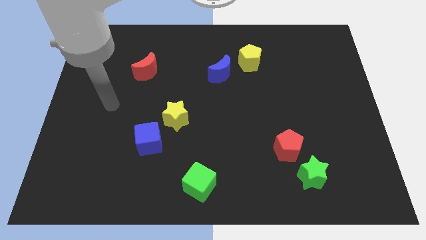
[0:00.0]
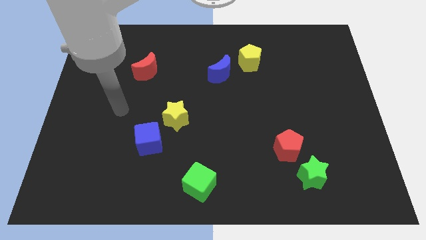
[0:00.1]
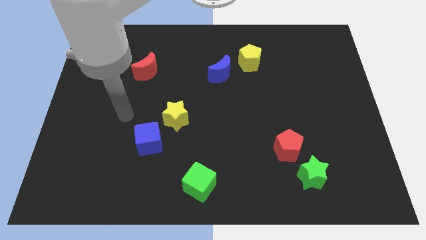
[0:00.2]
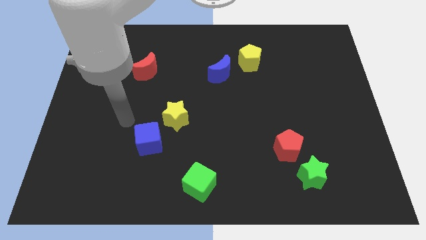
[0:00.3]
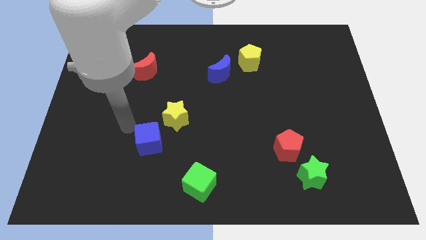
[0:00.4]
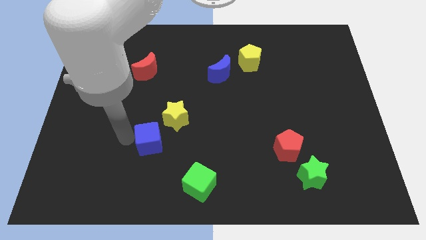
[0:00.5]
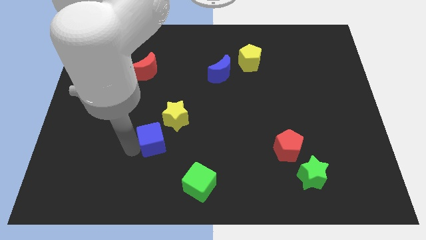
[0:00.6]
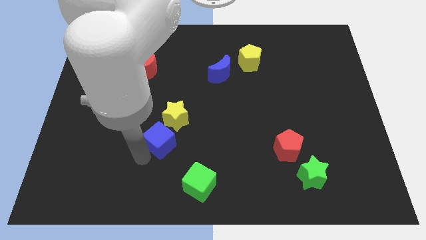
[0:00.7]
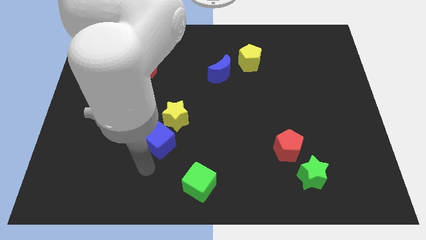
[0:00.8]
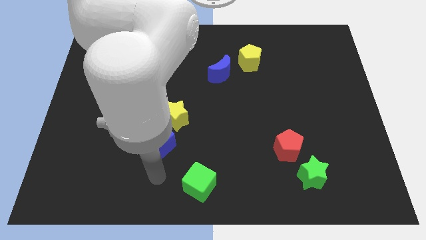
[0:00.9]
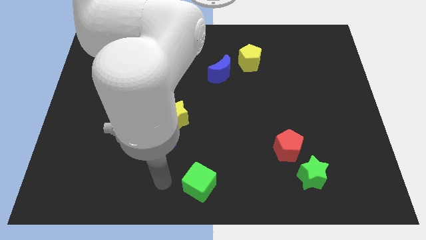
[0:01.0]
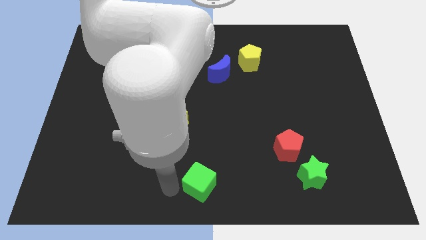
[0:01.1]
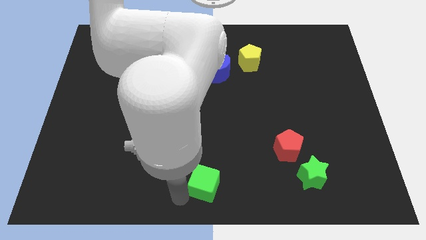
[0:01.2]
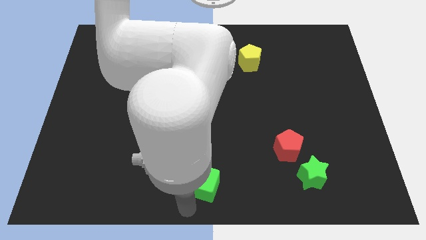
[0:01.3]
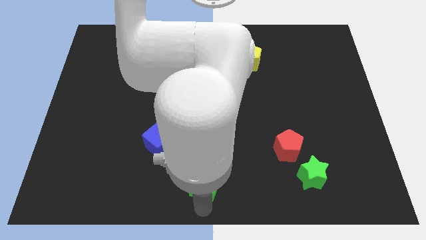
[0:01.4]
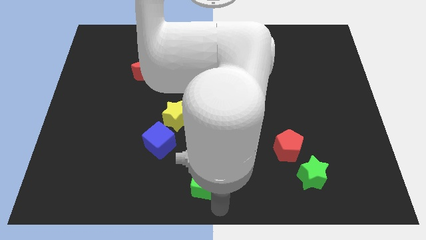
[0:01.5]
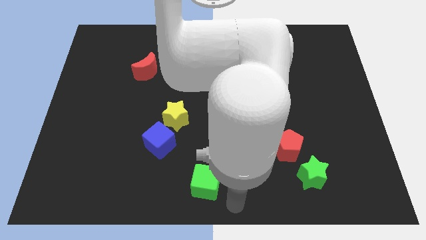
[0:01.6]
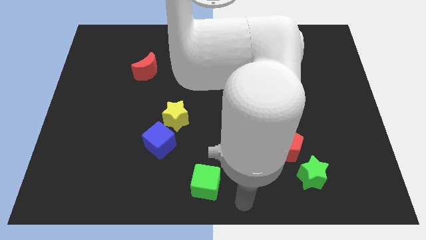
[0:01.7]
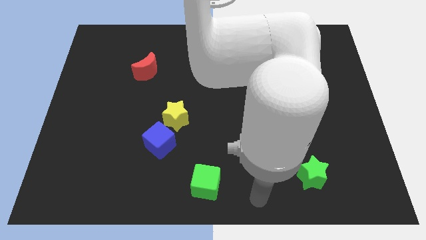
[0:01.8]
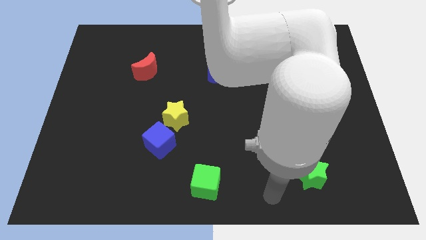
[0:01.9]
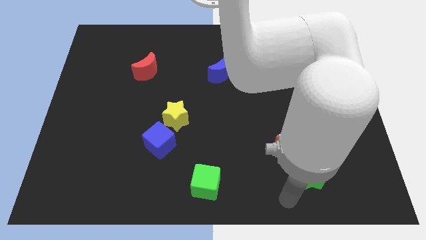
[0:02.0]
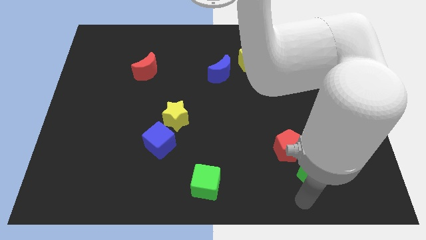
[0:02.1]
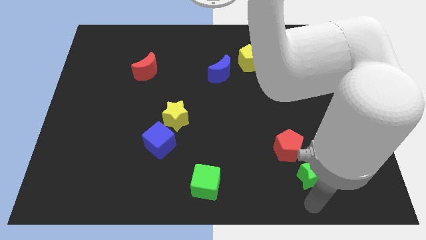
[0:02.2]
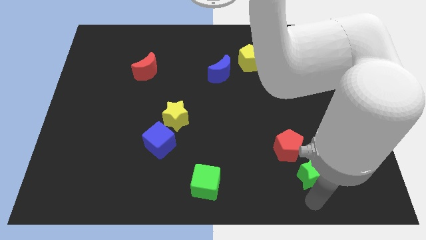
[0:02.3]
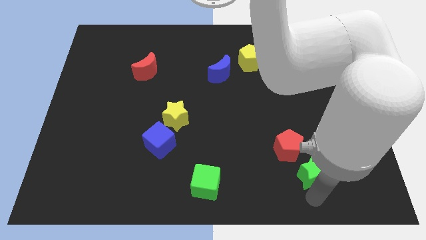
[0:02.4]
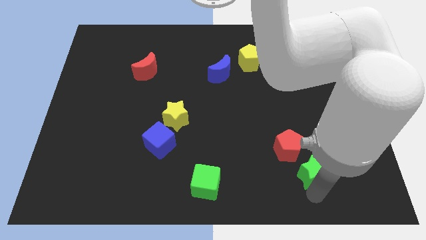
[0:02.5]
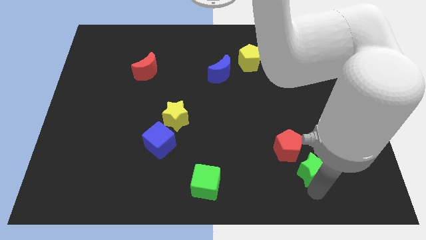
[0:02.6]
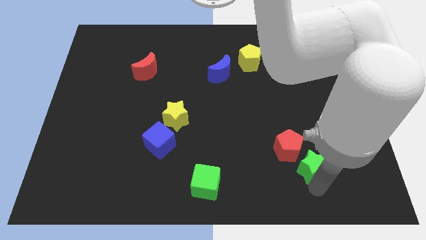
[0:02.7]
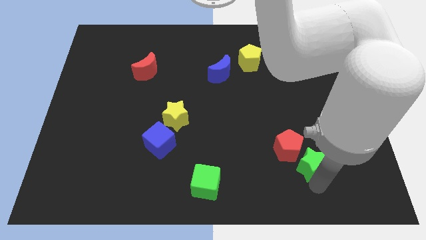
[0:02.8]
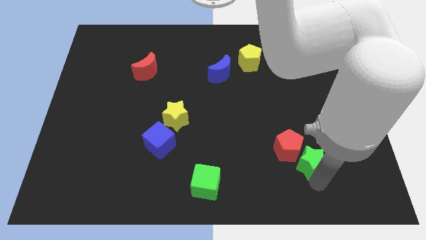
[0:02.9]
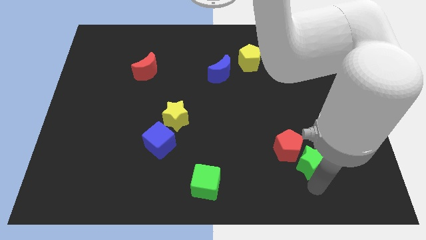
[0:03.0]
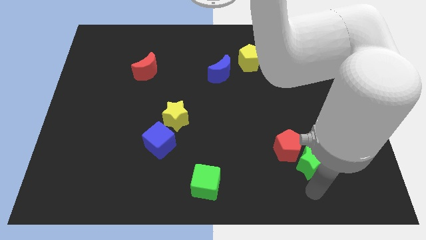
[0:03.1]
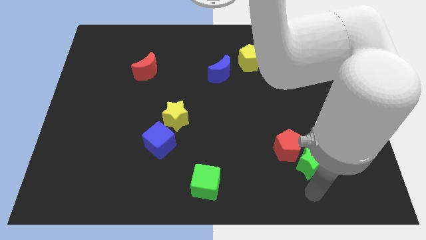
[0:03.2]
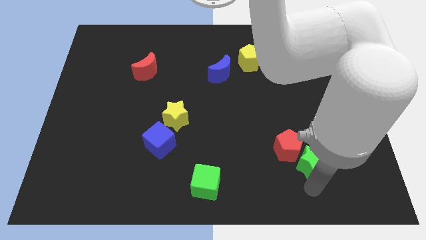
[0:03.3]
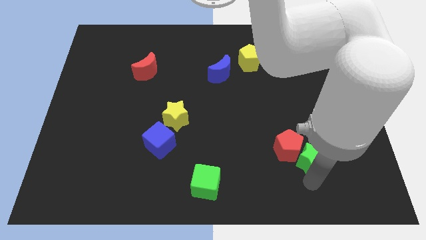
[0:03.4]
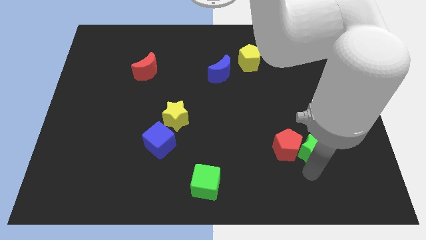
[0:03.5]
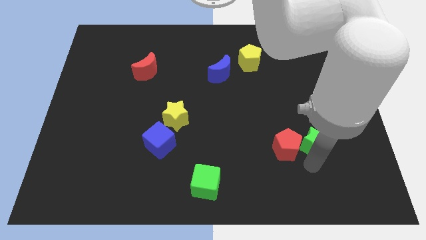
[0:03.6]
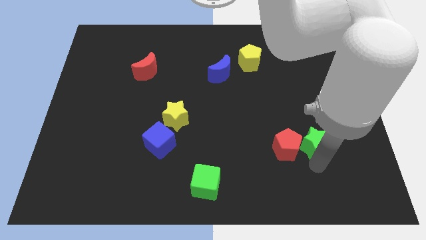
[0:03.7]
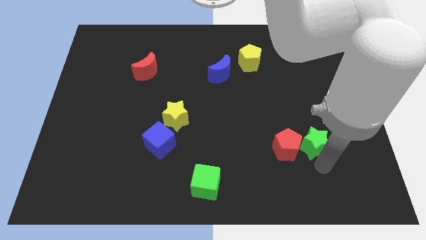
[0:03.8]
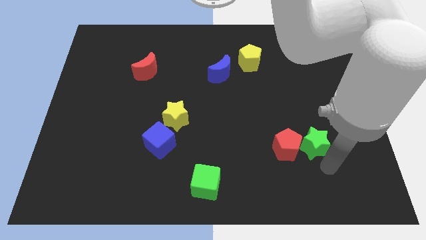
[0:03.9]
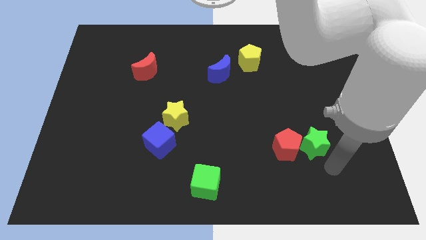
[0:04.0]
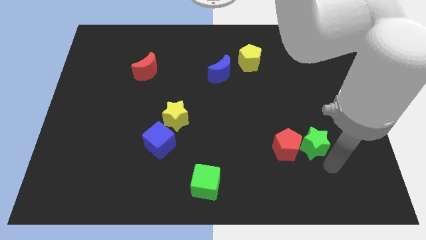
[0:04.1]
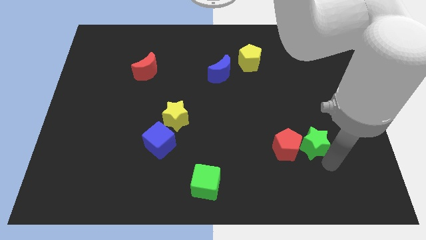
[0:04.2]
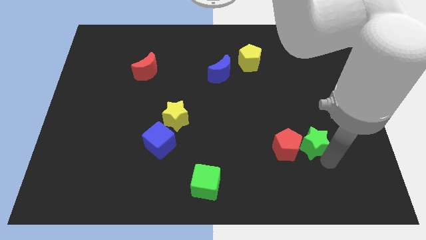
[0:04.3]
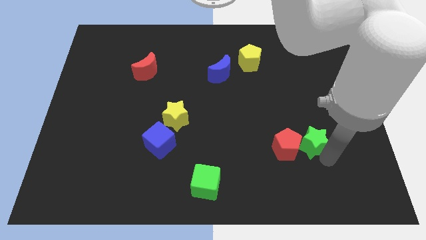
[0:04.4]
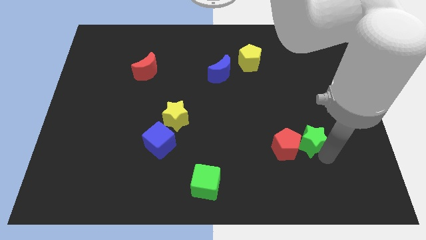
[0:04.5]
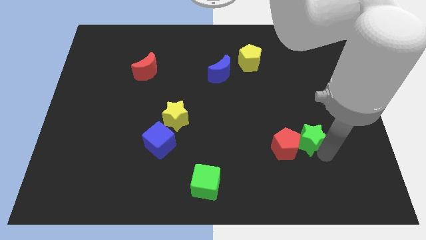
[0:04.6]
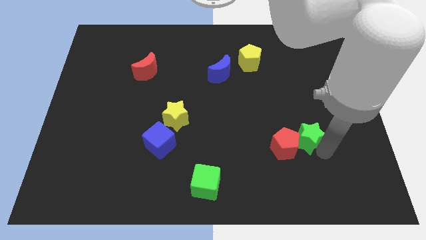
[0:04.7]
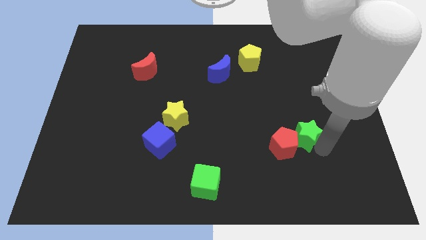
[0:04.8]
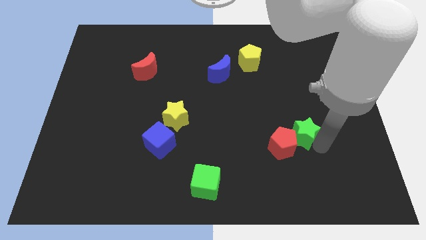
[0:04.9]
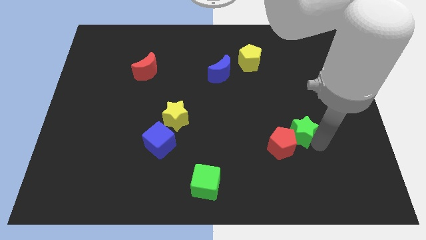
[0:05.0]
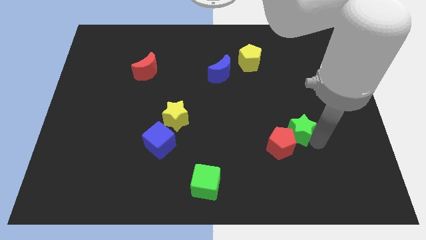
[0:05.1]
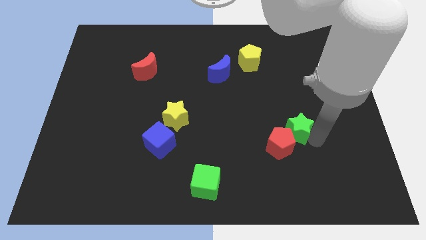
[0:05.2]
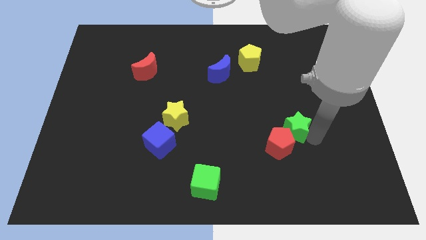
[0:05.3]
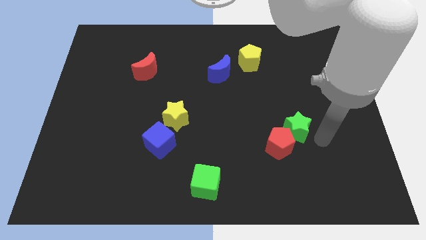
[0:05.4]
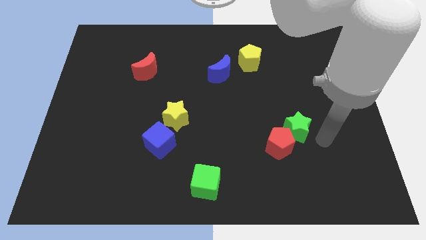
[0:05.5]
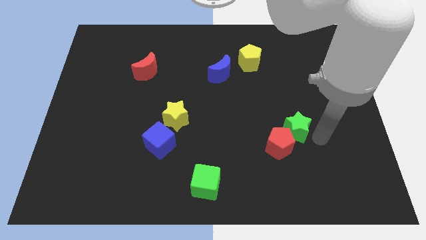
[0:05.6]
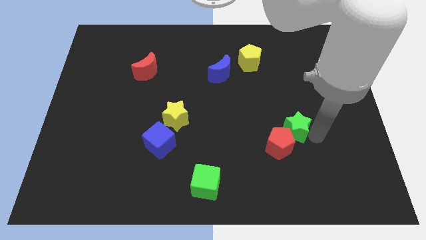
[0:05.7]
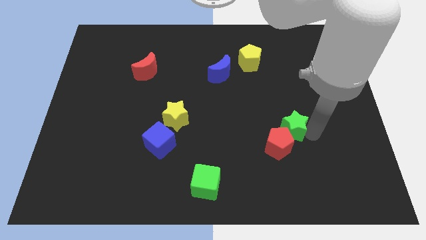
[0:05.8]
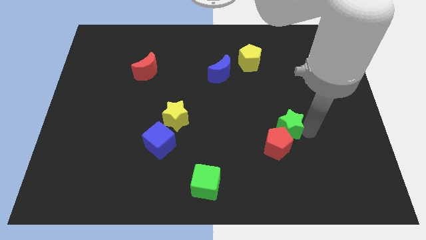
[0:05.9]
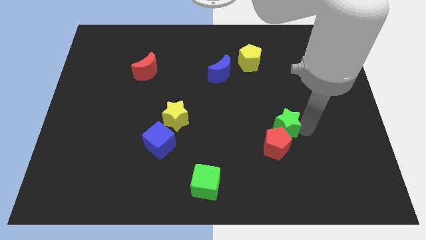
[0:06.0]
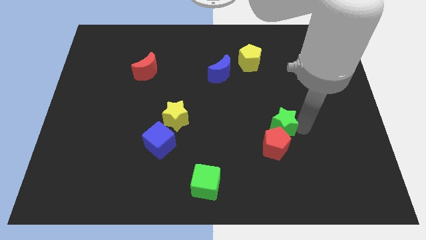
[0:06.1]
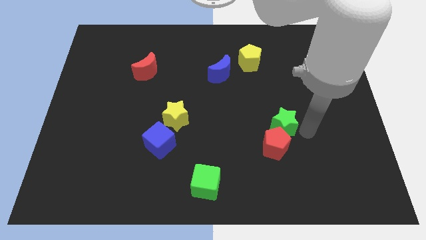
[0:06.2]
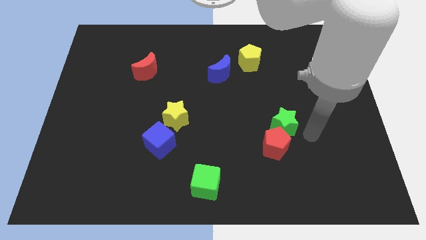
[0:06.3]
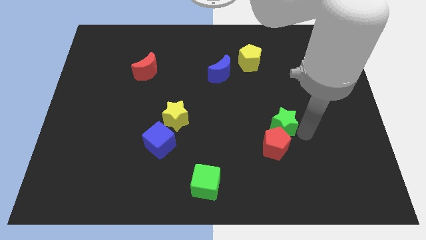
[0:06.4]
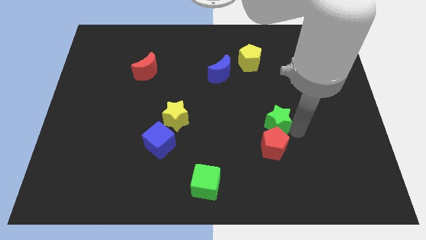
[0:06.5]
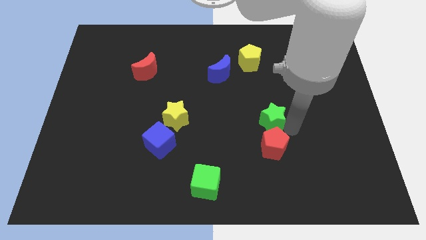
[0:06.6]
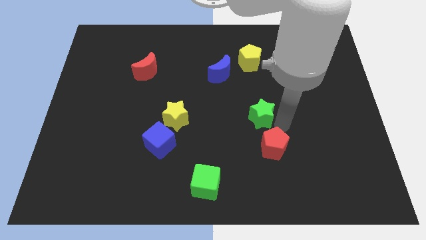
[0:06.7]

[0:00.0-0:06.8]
push the green star to the middle of the board
